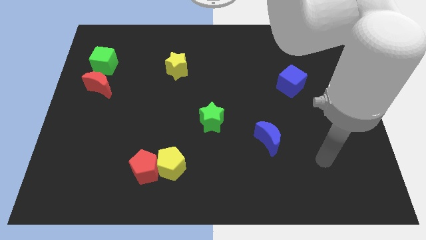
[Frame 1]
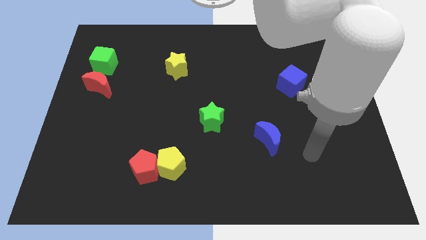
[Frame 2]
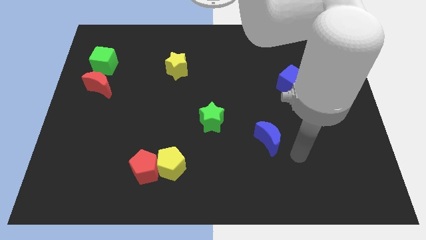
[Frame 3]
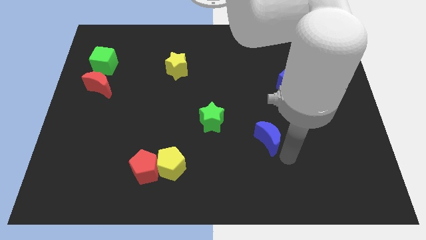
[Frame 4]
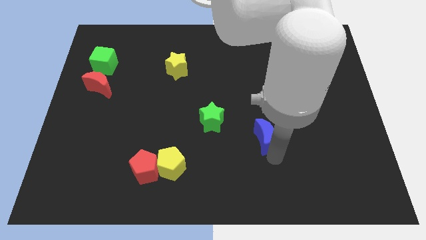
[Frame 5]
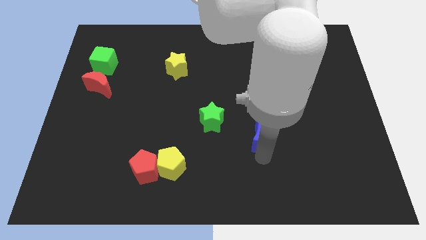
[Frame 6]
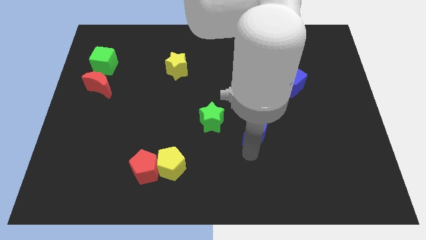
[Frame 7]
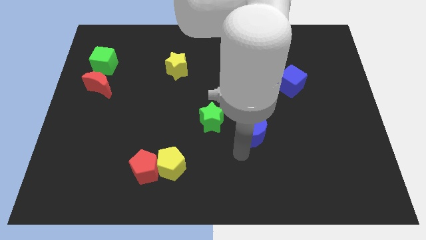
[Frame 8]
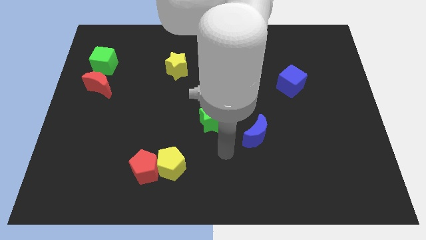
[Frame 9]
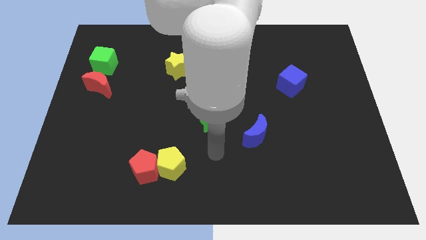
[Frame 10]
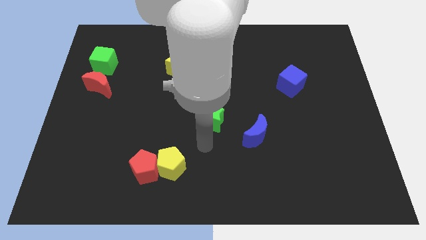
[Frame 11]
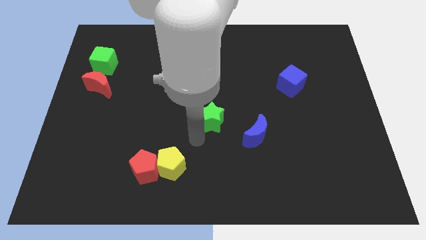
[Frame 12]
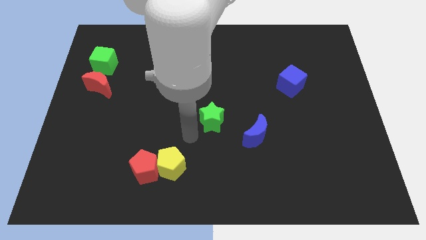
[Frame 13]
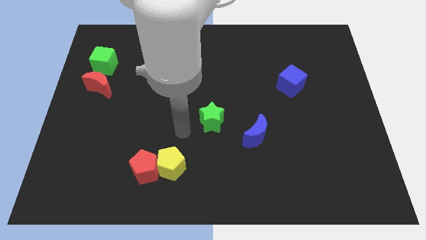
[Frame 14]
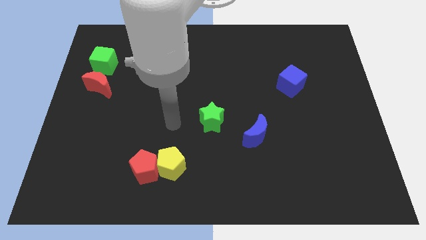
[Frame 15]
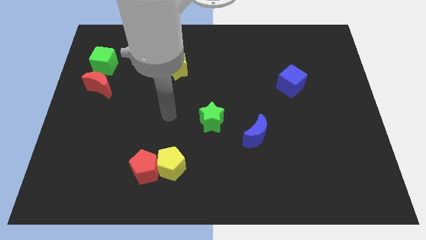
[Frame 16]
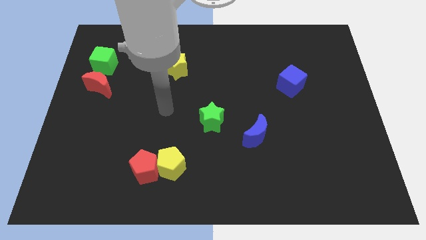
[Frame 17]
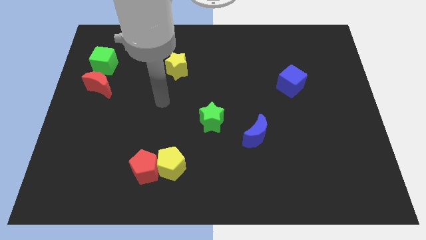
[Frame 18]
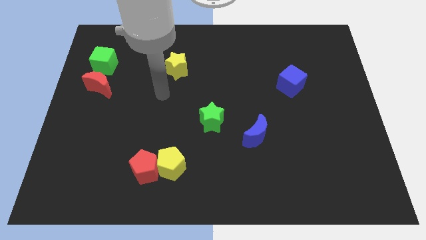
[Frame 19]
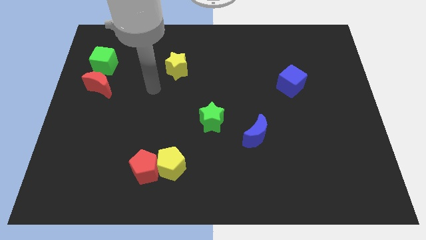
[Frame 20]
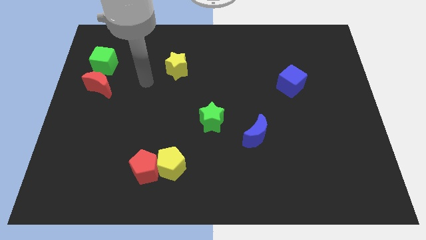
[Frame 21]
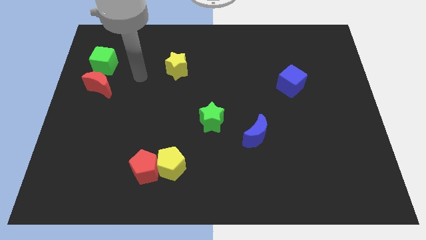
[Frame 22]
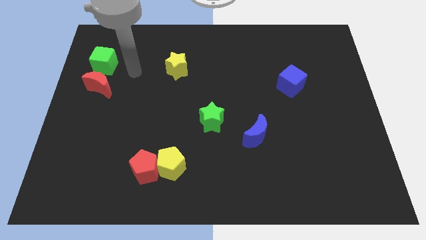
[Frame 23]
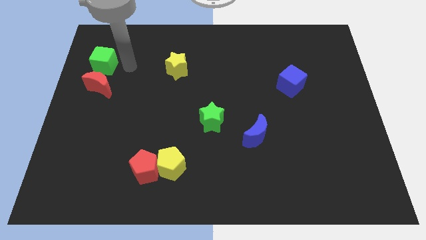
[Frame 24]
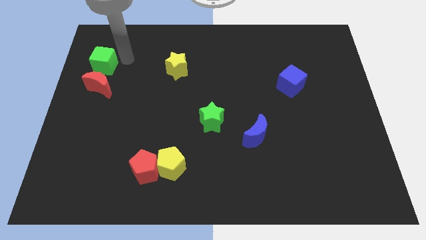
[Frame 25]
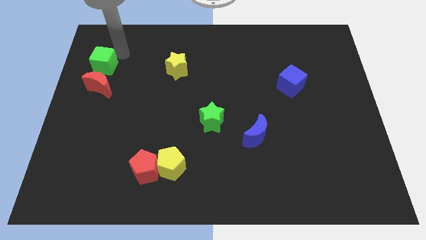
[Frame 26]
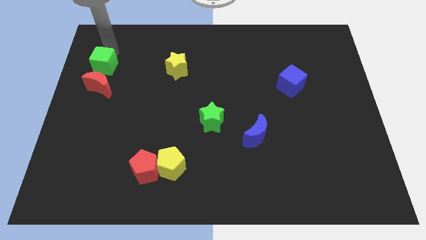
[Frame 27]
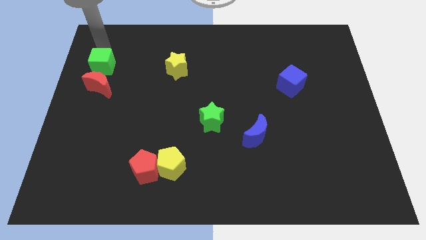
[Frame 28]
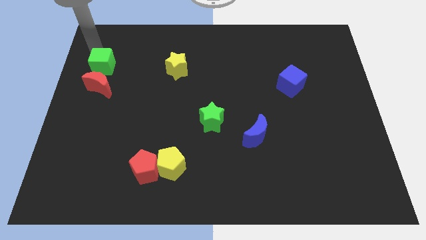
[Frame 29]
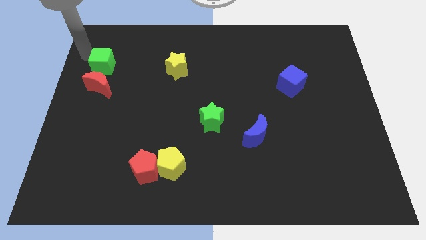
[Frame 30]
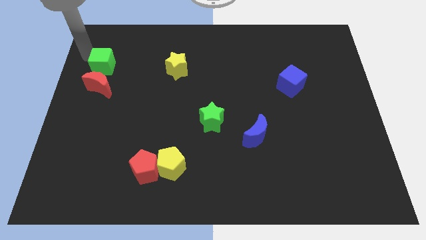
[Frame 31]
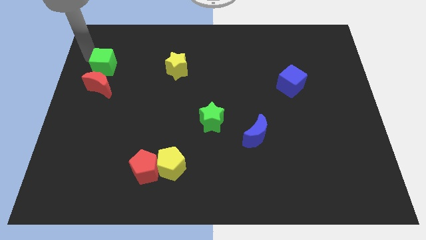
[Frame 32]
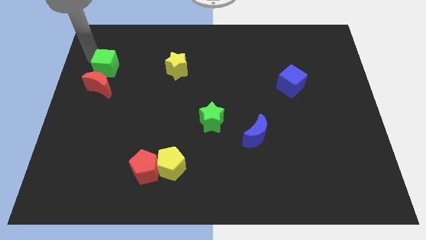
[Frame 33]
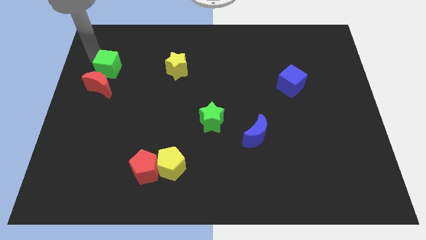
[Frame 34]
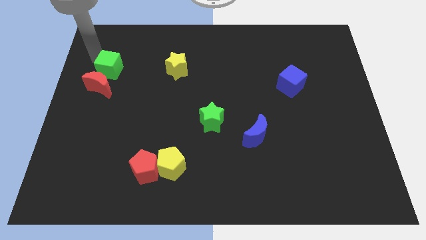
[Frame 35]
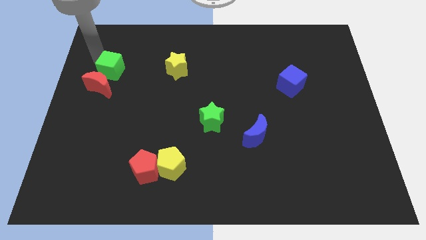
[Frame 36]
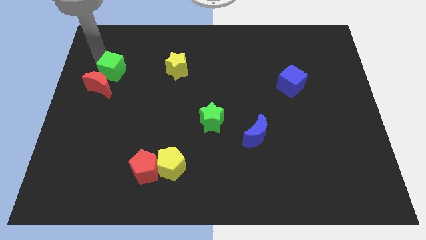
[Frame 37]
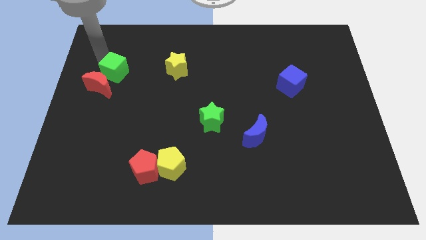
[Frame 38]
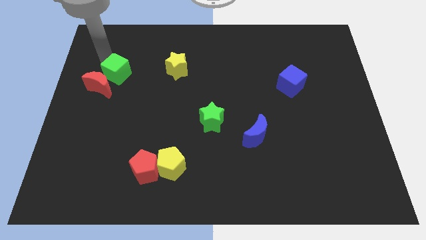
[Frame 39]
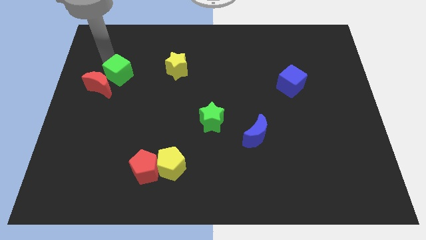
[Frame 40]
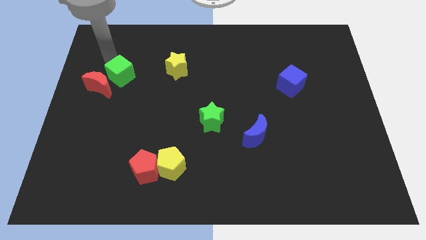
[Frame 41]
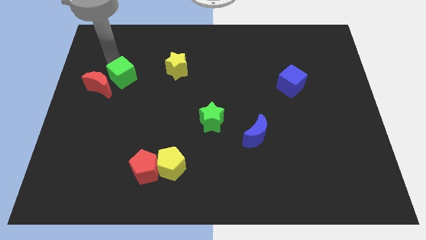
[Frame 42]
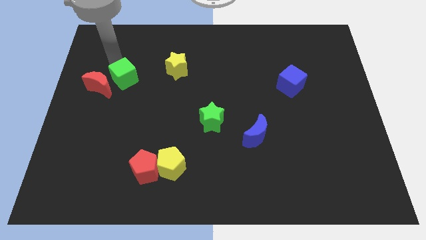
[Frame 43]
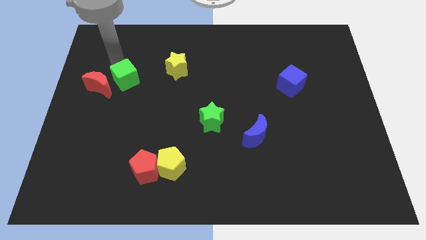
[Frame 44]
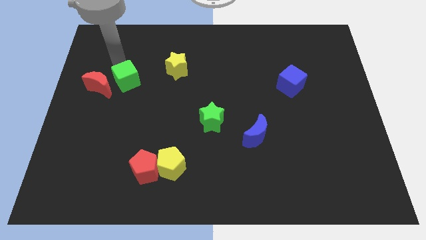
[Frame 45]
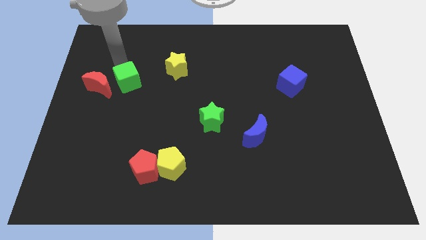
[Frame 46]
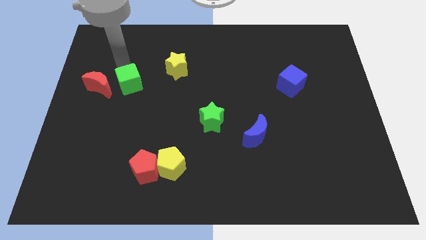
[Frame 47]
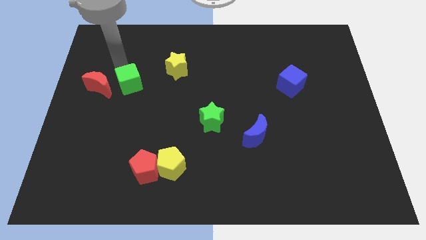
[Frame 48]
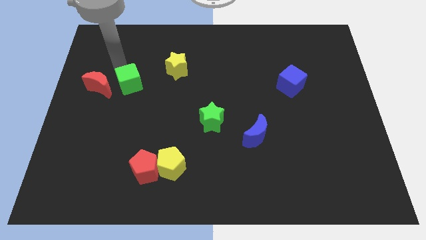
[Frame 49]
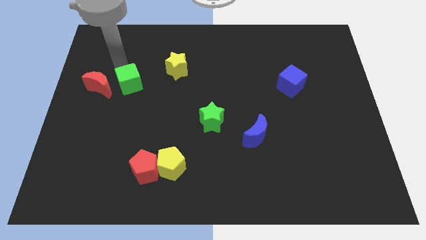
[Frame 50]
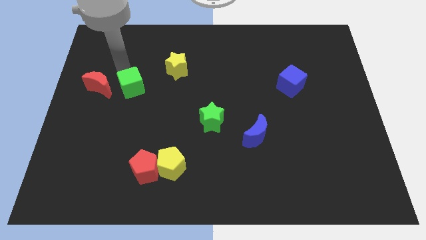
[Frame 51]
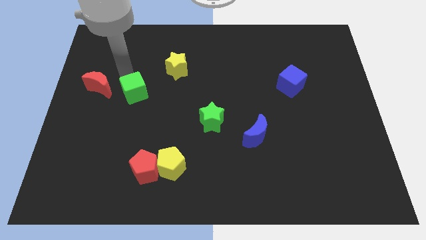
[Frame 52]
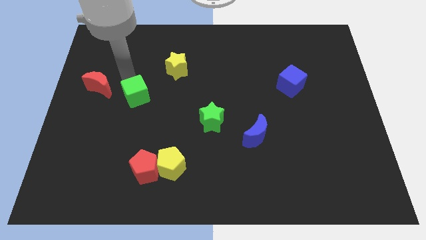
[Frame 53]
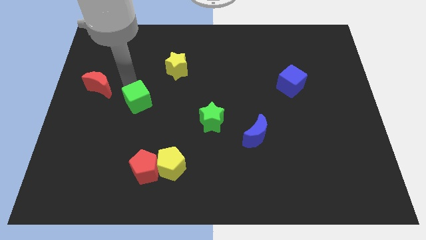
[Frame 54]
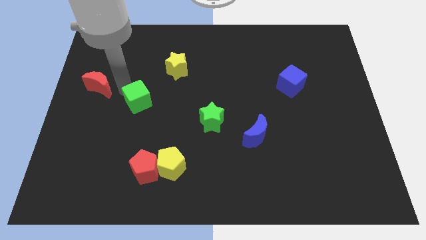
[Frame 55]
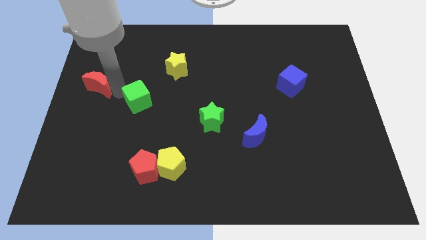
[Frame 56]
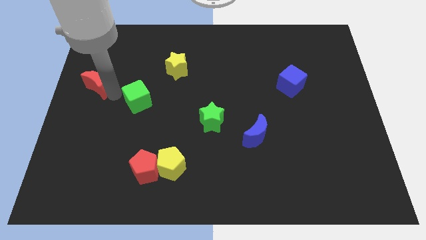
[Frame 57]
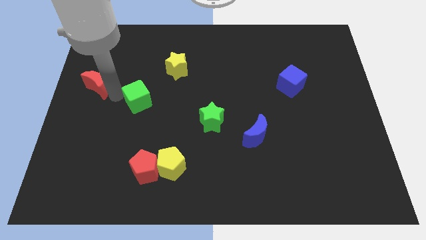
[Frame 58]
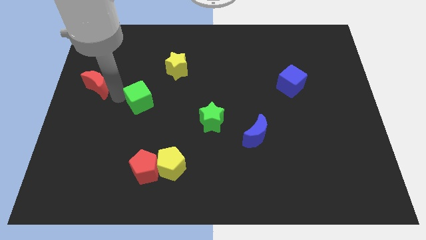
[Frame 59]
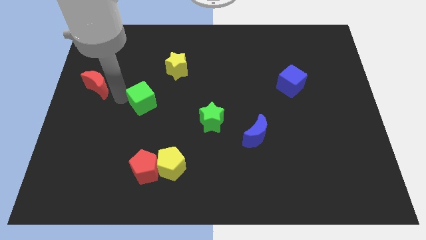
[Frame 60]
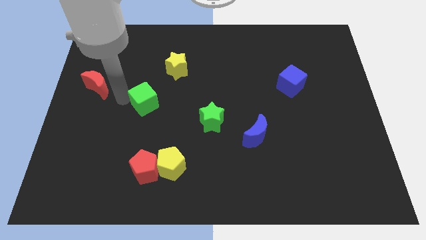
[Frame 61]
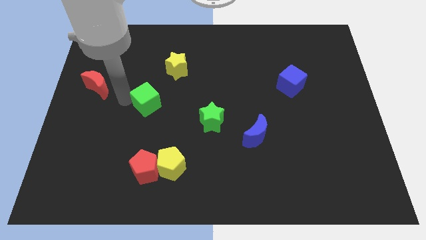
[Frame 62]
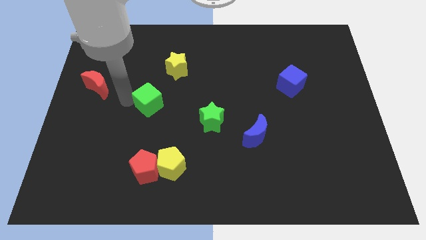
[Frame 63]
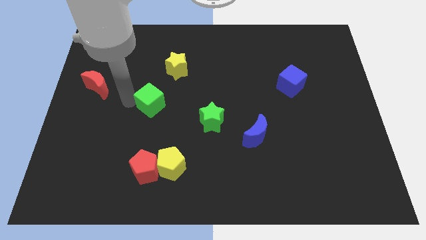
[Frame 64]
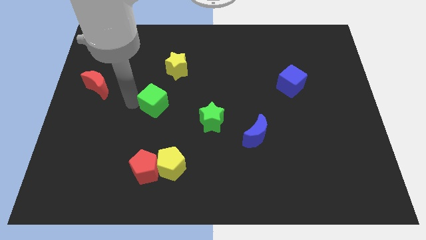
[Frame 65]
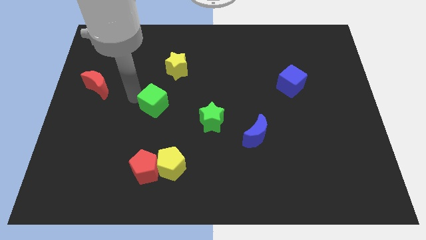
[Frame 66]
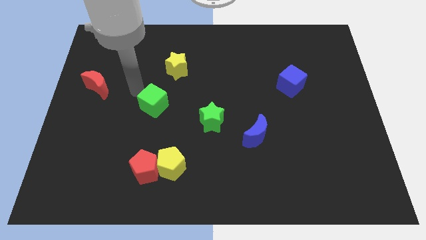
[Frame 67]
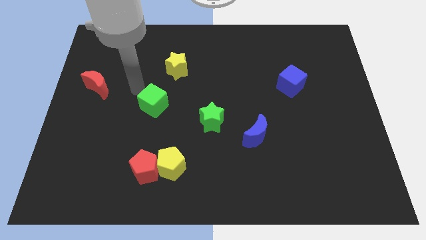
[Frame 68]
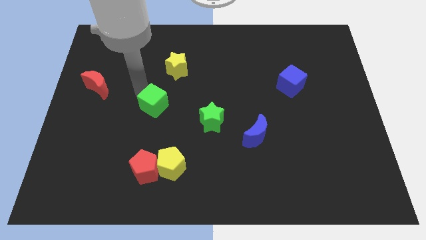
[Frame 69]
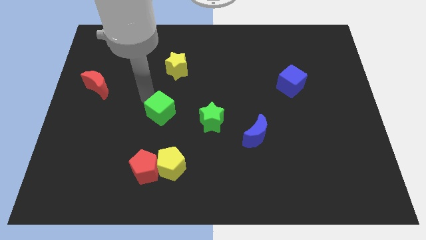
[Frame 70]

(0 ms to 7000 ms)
move the green cube downwards and then right

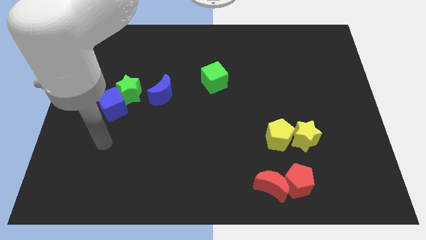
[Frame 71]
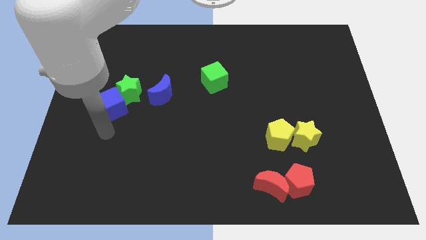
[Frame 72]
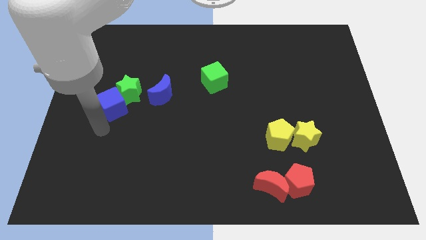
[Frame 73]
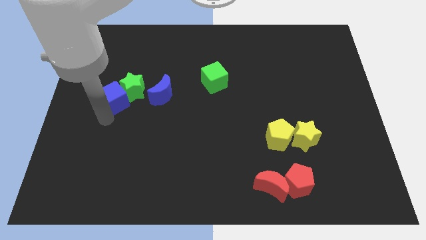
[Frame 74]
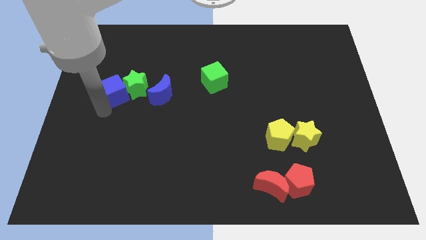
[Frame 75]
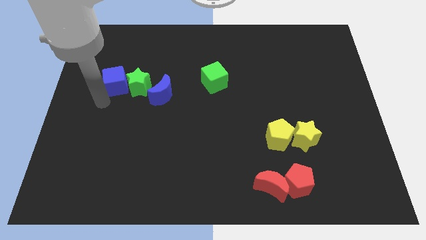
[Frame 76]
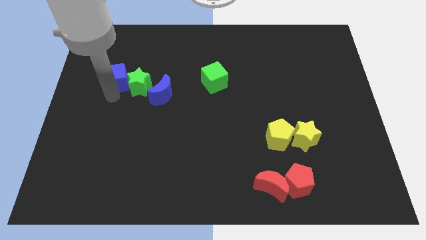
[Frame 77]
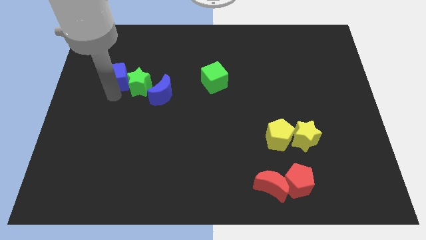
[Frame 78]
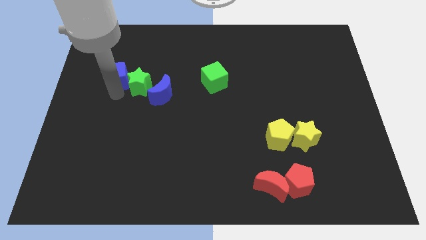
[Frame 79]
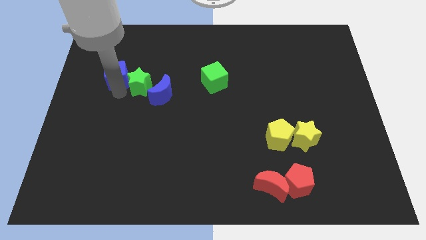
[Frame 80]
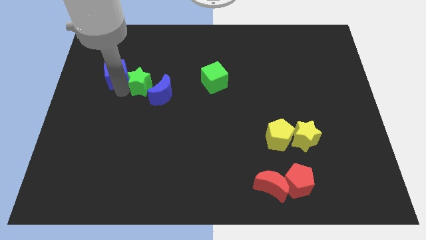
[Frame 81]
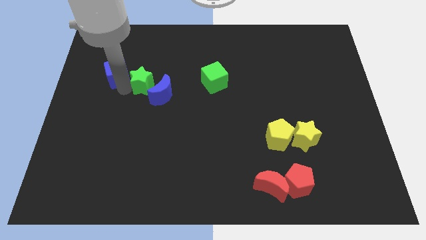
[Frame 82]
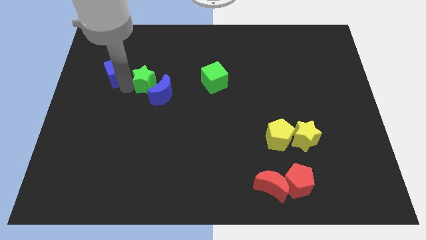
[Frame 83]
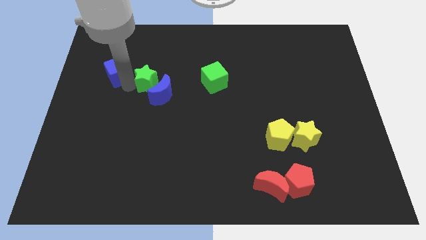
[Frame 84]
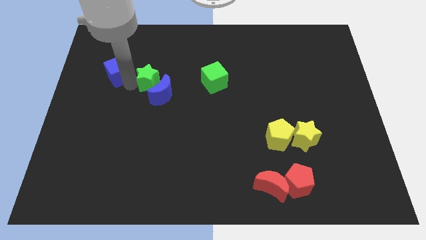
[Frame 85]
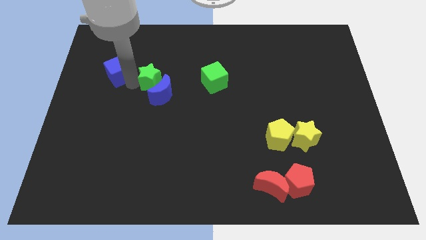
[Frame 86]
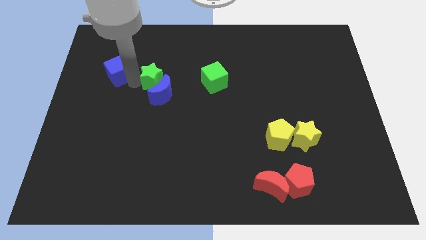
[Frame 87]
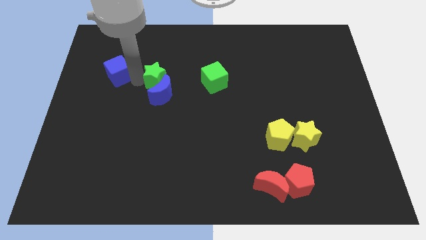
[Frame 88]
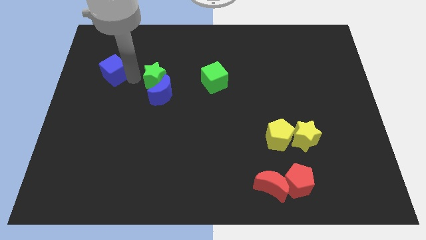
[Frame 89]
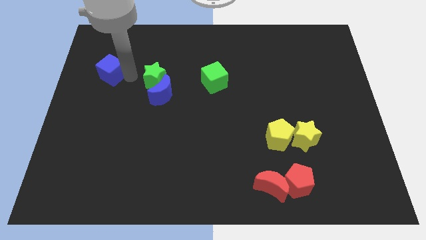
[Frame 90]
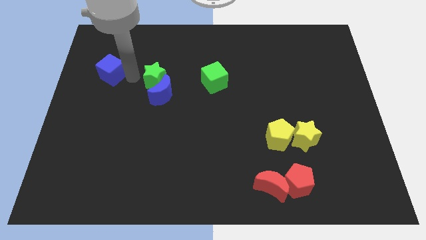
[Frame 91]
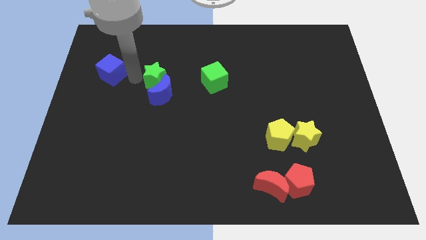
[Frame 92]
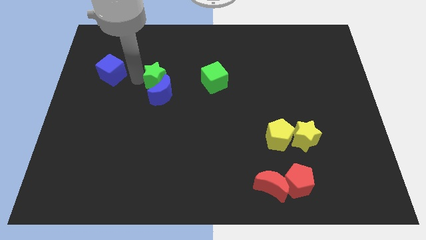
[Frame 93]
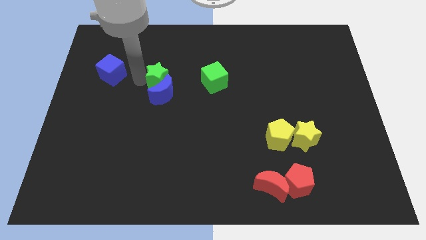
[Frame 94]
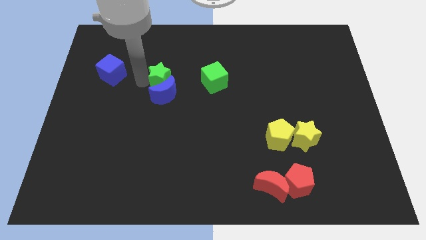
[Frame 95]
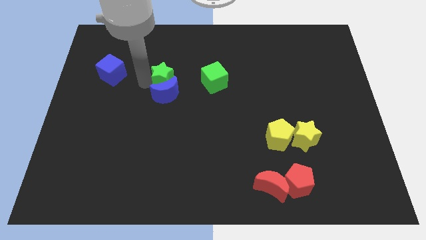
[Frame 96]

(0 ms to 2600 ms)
move the green star slightly to the right
